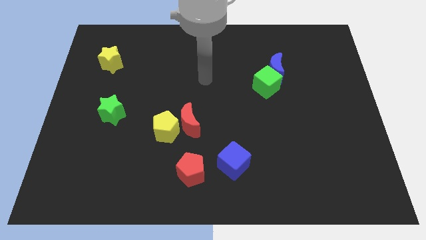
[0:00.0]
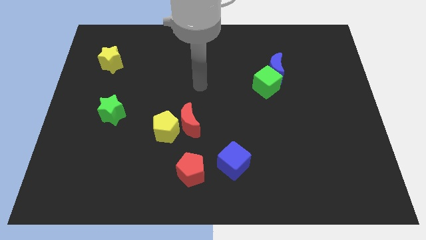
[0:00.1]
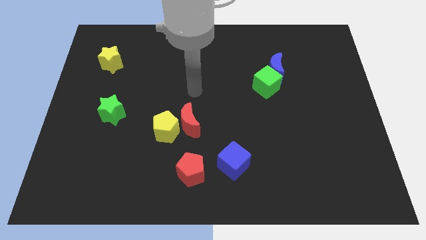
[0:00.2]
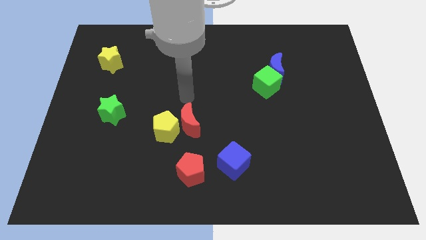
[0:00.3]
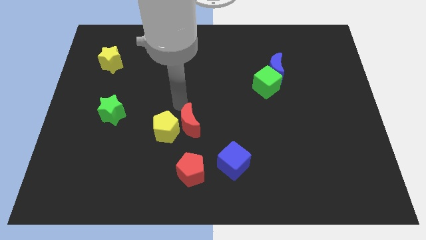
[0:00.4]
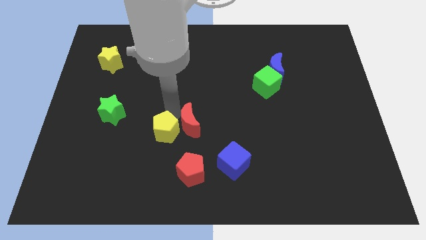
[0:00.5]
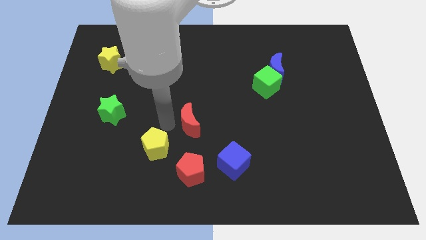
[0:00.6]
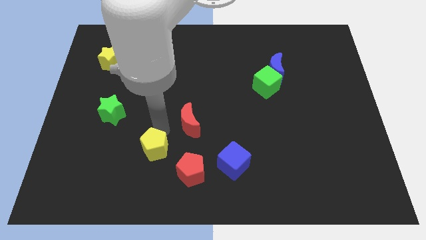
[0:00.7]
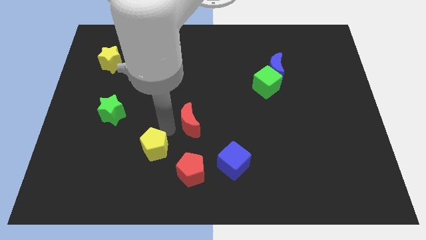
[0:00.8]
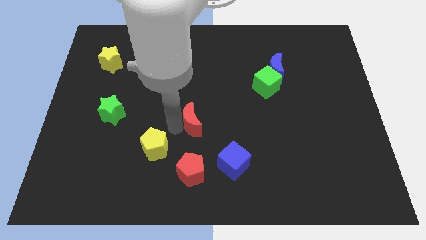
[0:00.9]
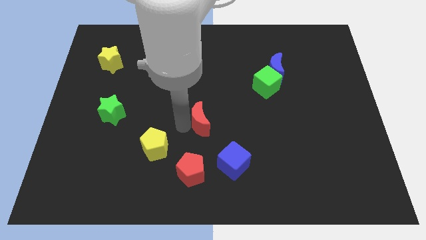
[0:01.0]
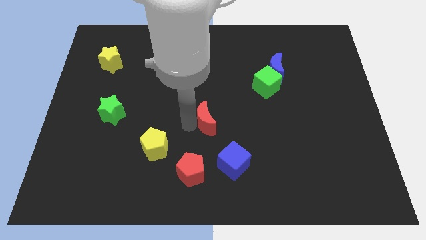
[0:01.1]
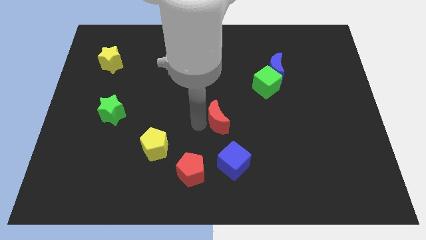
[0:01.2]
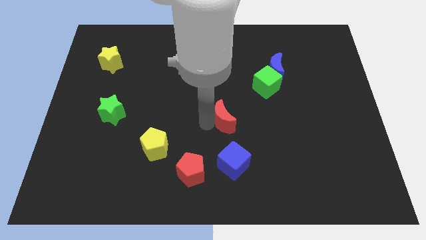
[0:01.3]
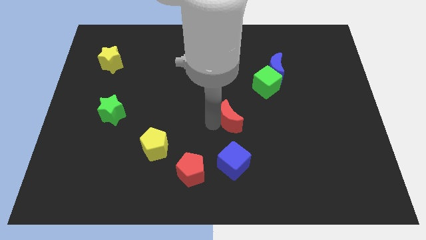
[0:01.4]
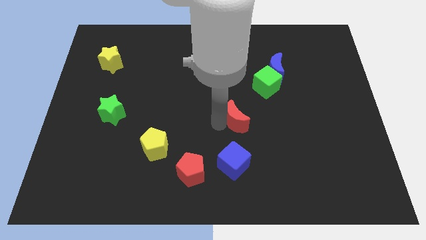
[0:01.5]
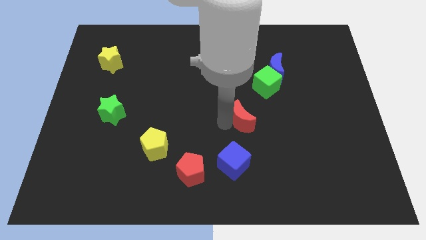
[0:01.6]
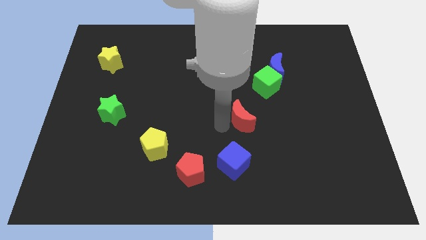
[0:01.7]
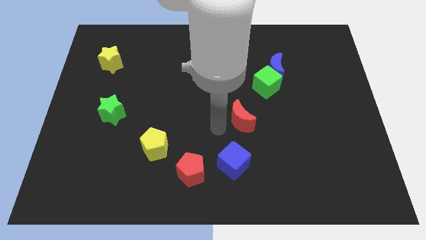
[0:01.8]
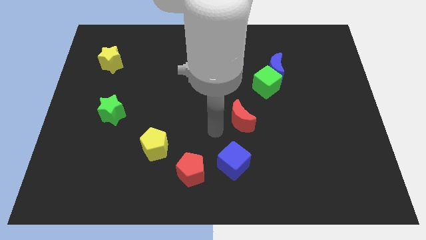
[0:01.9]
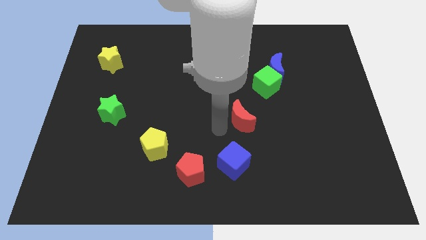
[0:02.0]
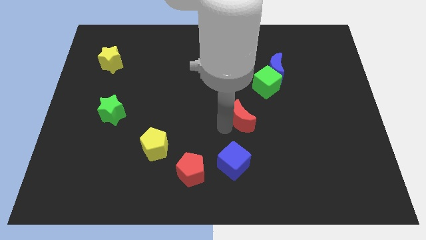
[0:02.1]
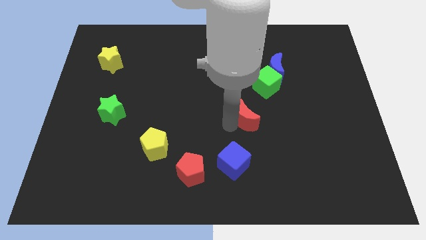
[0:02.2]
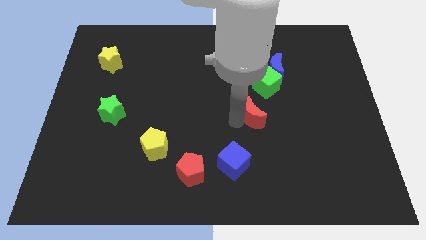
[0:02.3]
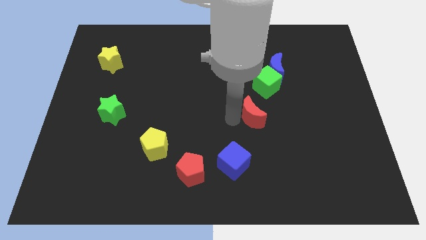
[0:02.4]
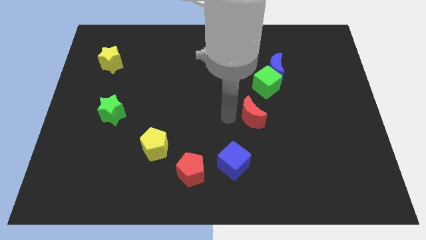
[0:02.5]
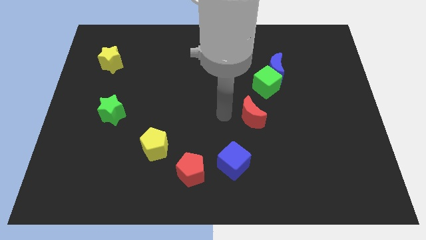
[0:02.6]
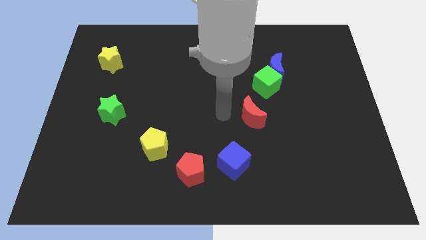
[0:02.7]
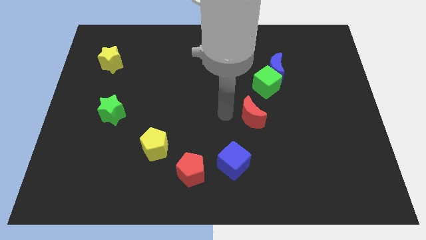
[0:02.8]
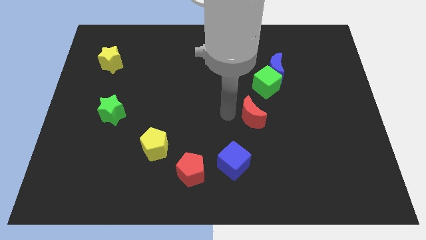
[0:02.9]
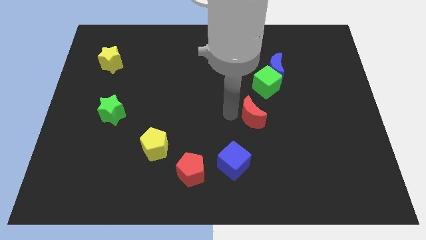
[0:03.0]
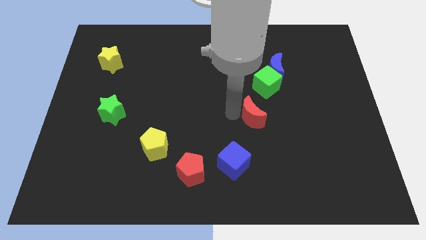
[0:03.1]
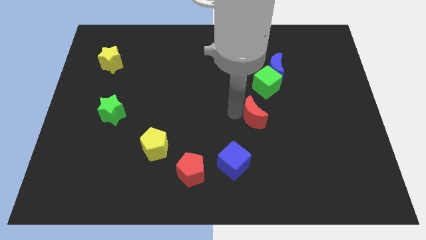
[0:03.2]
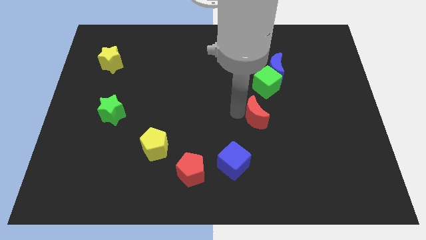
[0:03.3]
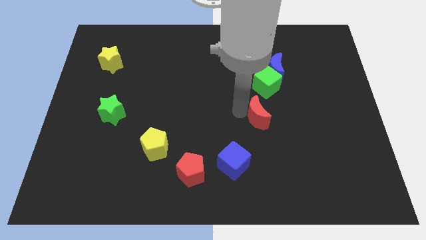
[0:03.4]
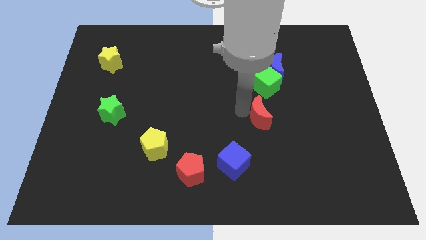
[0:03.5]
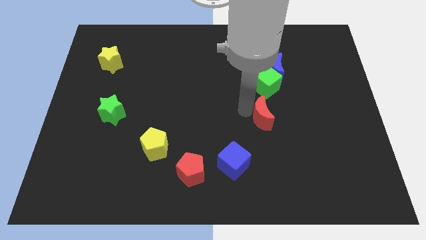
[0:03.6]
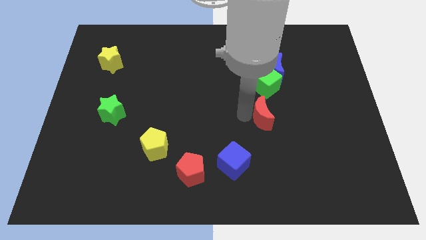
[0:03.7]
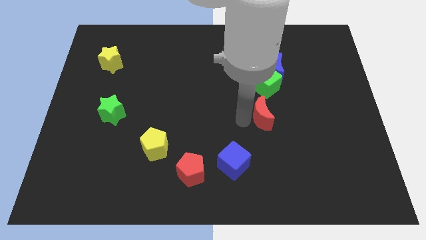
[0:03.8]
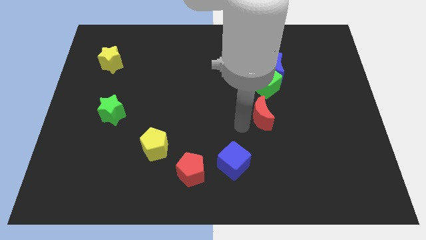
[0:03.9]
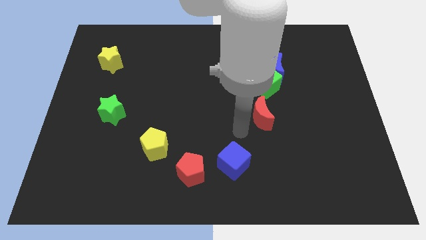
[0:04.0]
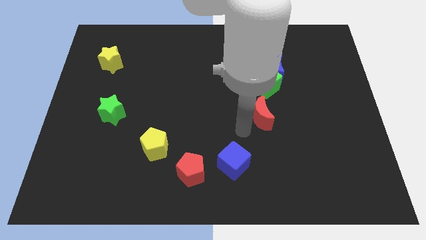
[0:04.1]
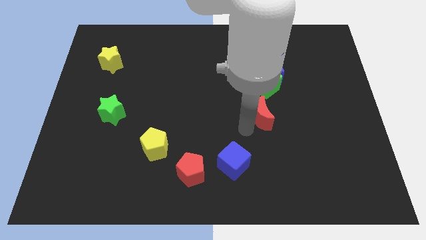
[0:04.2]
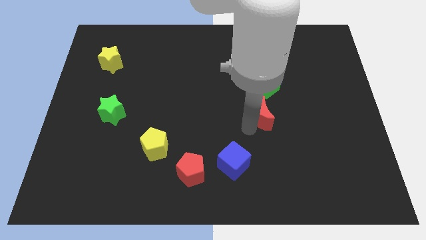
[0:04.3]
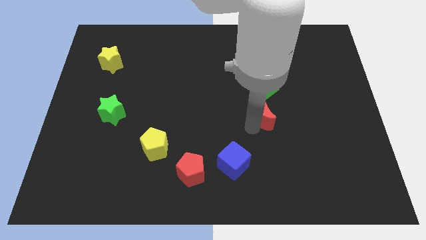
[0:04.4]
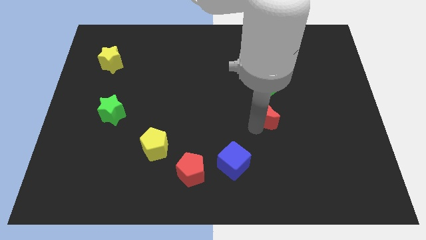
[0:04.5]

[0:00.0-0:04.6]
push the red moon below the blue moon

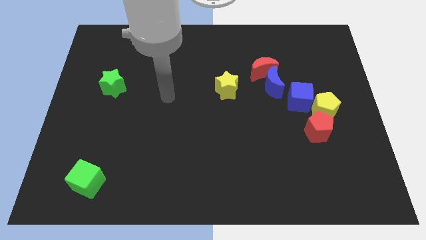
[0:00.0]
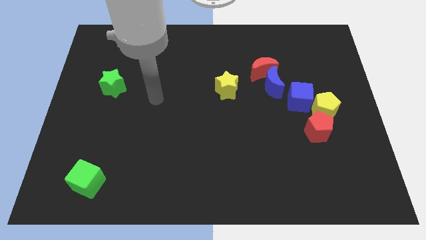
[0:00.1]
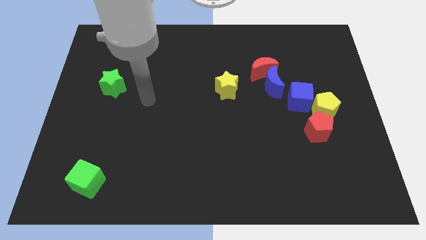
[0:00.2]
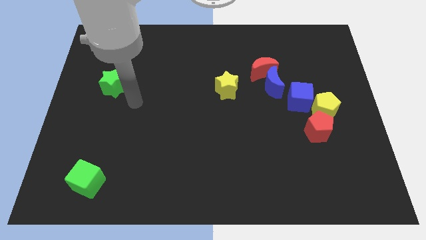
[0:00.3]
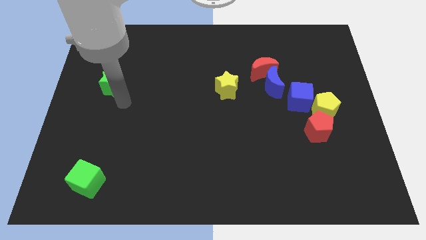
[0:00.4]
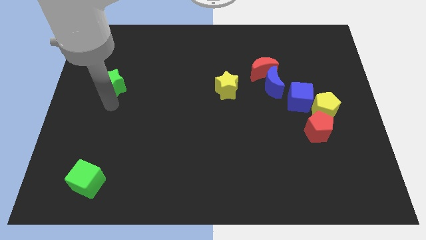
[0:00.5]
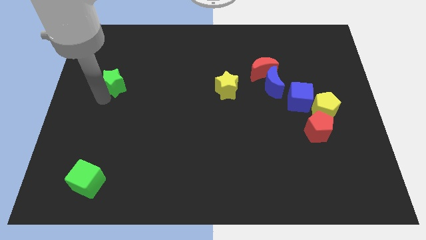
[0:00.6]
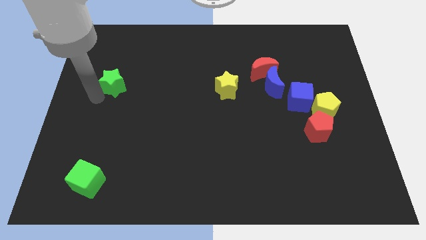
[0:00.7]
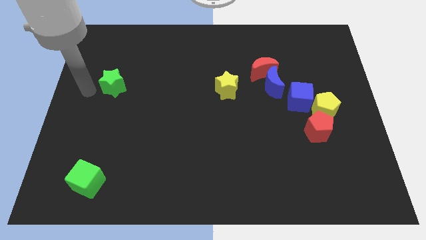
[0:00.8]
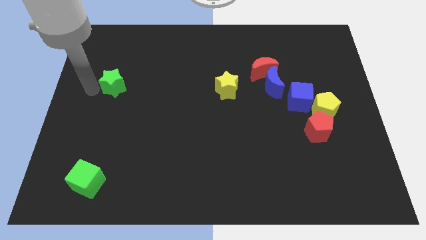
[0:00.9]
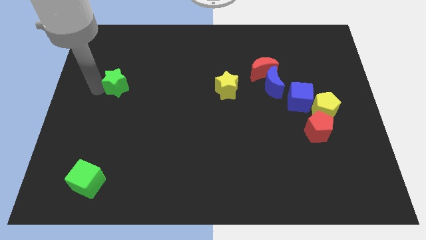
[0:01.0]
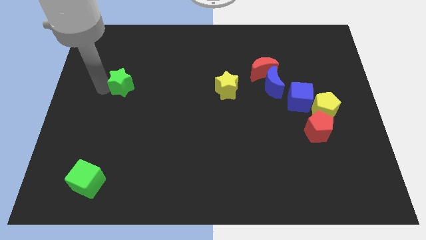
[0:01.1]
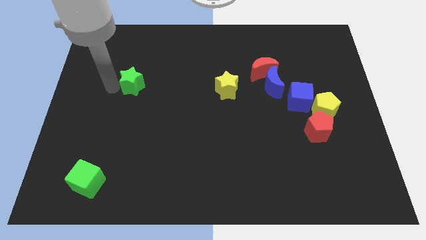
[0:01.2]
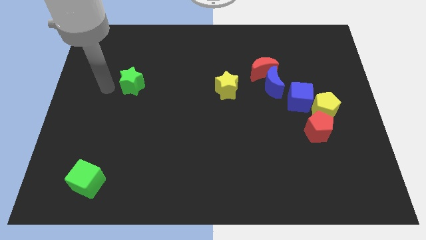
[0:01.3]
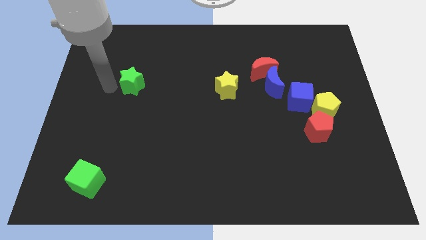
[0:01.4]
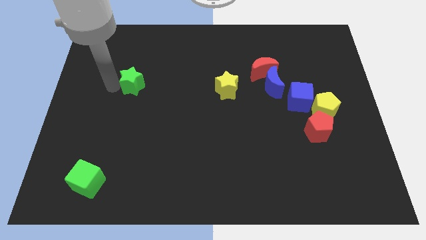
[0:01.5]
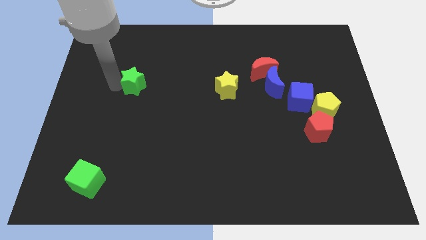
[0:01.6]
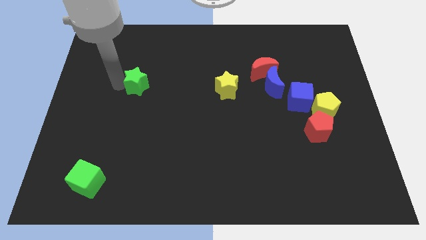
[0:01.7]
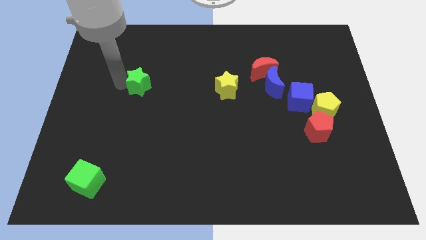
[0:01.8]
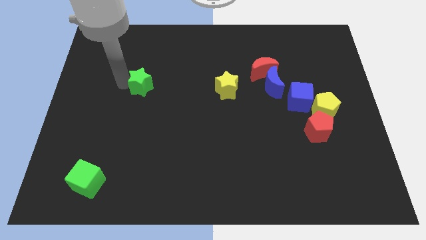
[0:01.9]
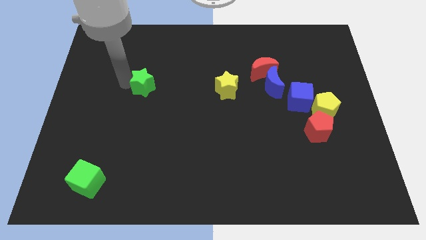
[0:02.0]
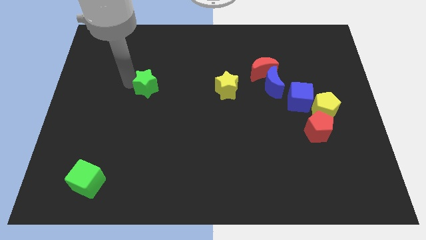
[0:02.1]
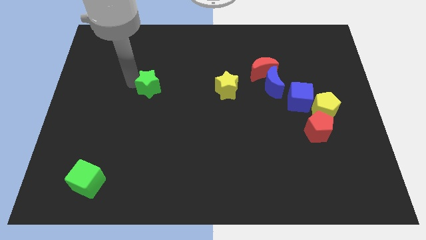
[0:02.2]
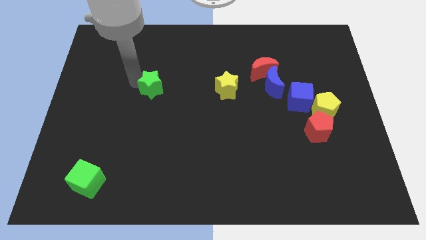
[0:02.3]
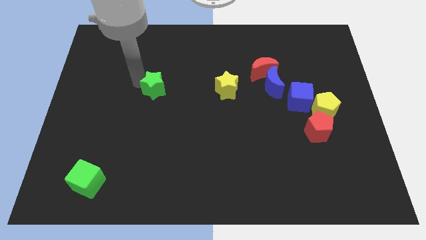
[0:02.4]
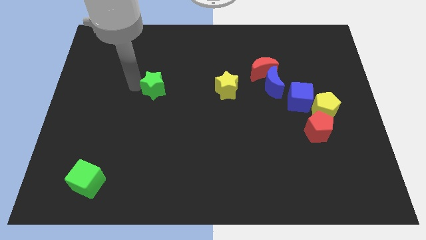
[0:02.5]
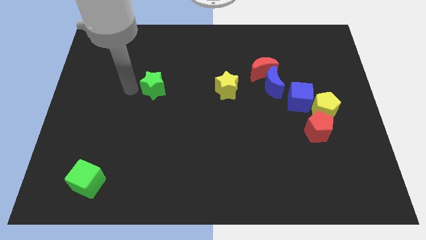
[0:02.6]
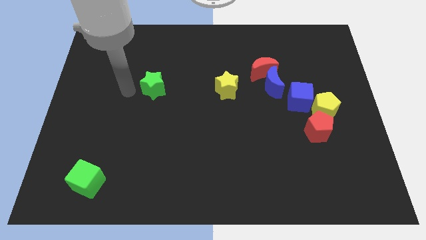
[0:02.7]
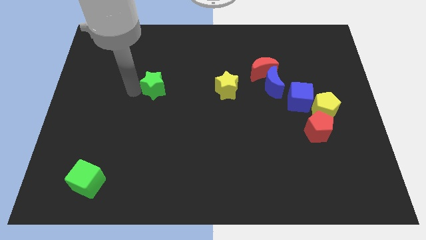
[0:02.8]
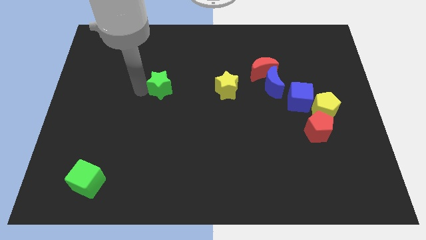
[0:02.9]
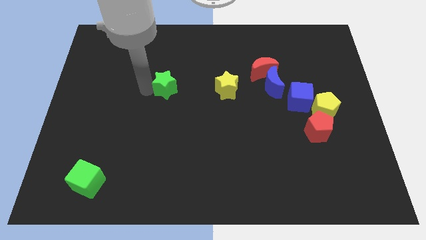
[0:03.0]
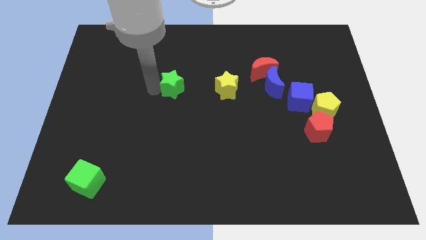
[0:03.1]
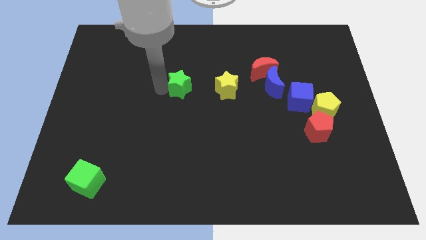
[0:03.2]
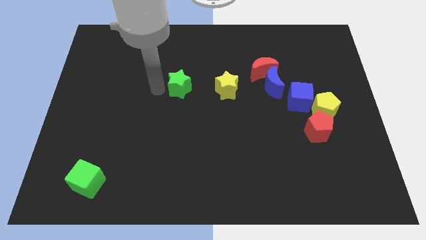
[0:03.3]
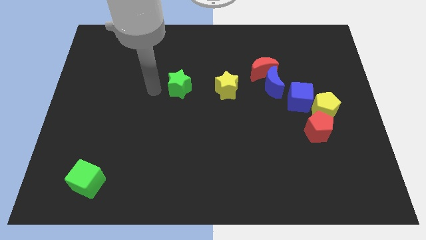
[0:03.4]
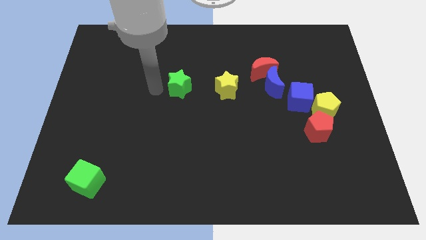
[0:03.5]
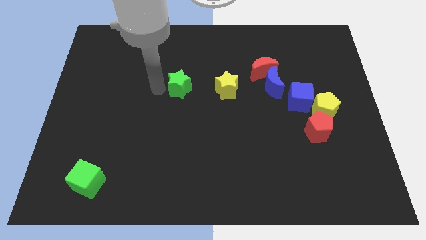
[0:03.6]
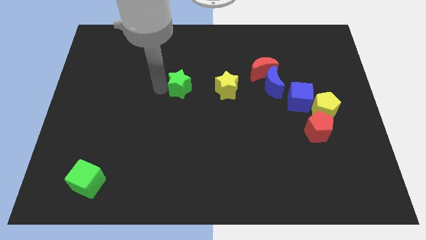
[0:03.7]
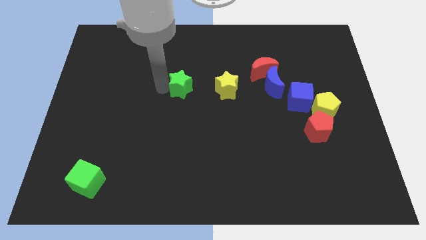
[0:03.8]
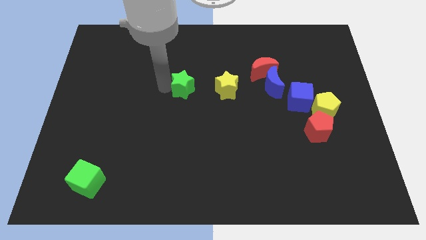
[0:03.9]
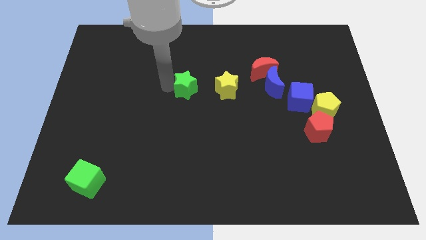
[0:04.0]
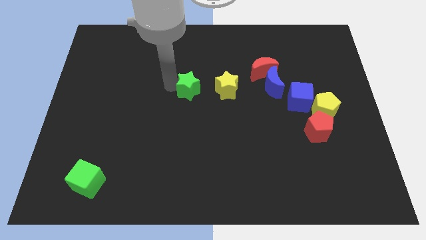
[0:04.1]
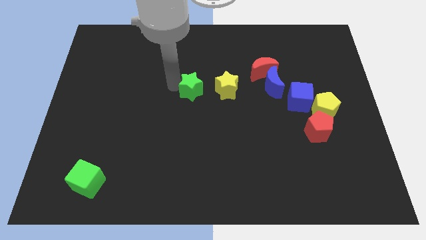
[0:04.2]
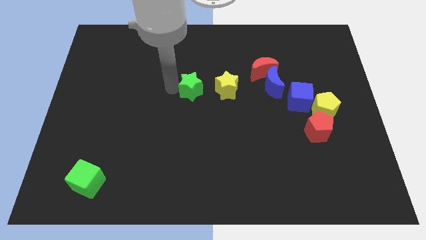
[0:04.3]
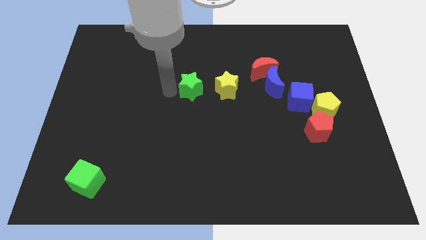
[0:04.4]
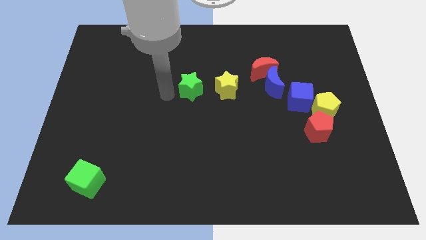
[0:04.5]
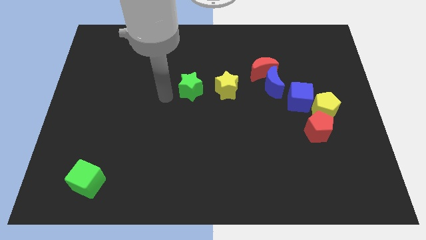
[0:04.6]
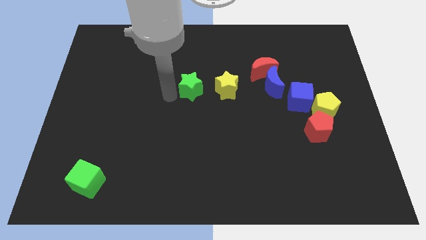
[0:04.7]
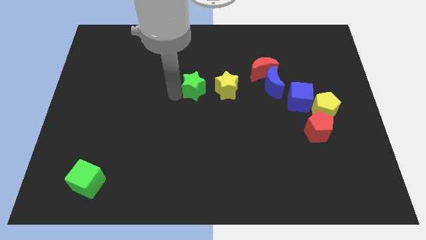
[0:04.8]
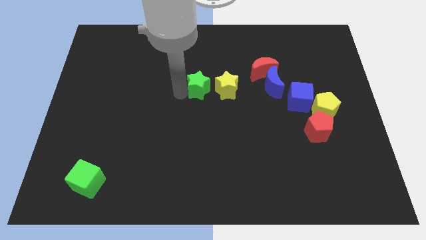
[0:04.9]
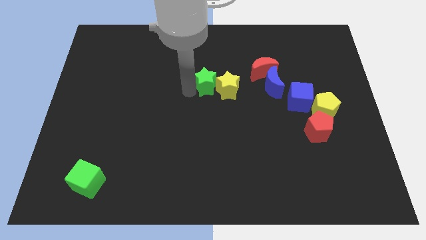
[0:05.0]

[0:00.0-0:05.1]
push the green star just left of the blue moon
